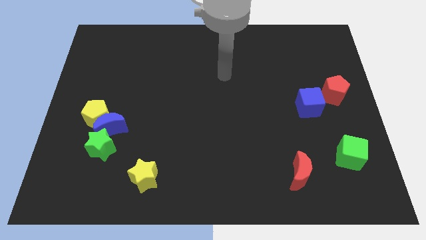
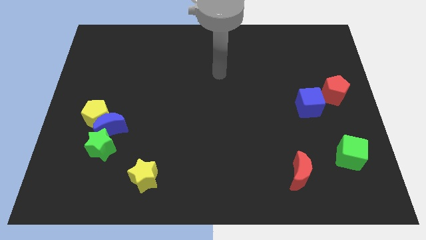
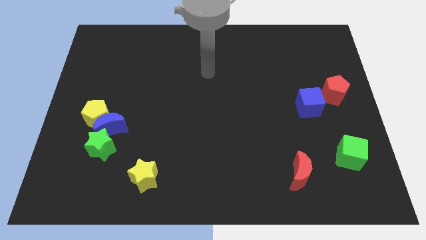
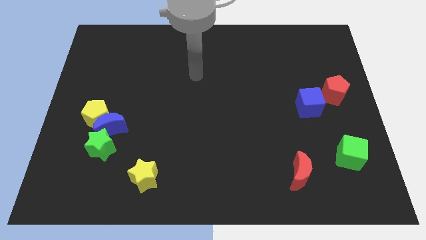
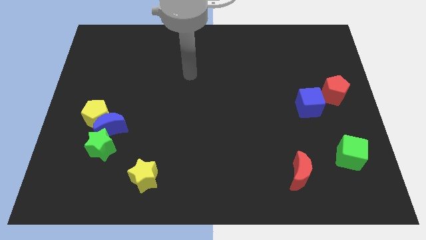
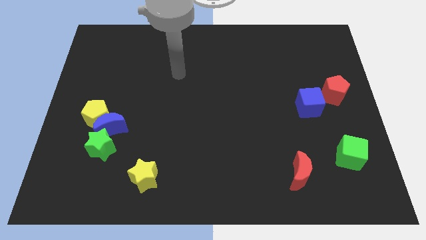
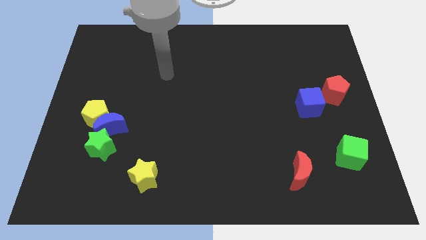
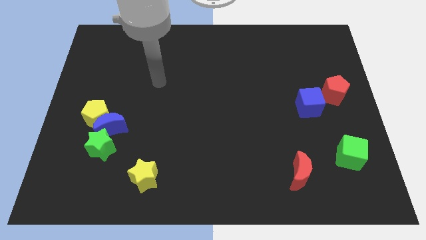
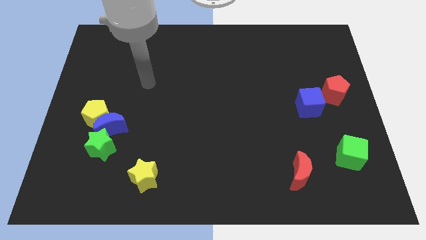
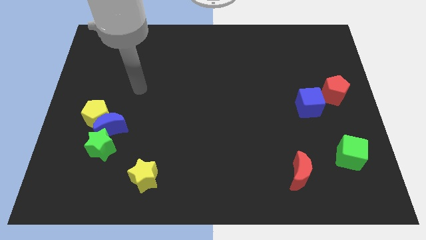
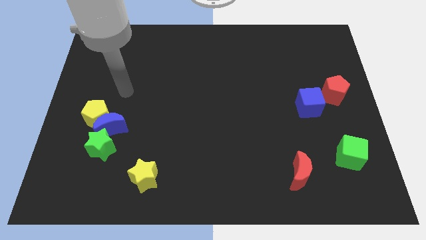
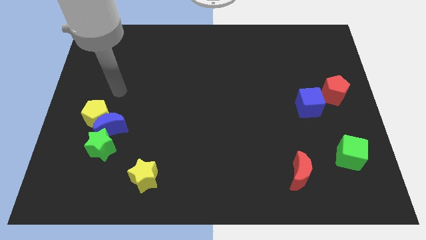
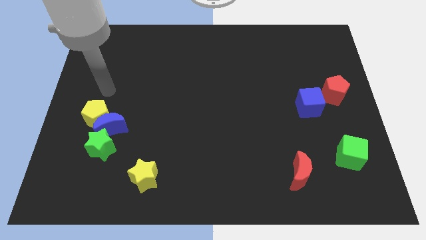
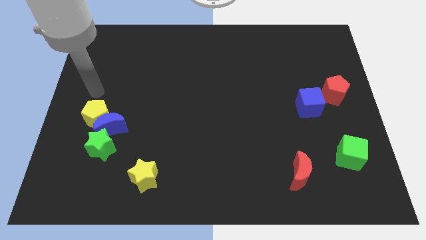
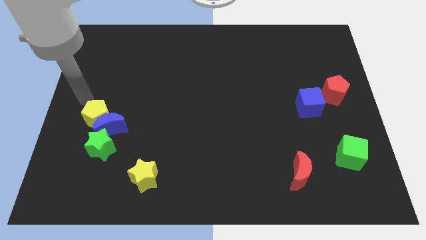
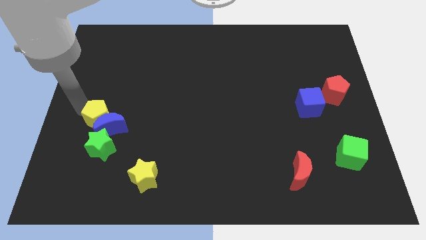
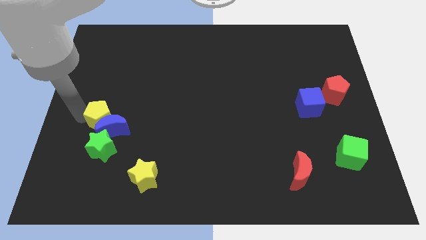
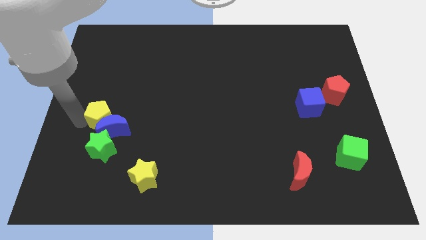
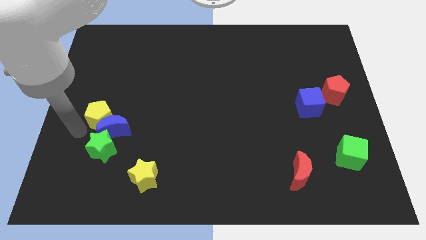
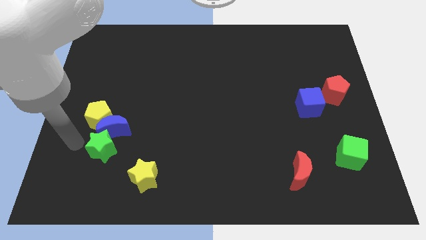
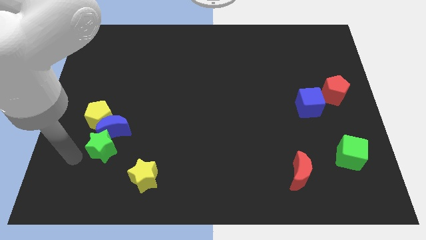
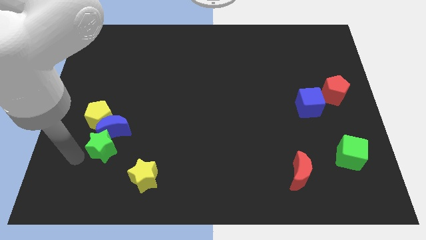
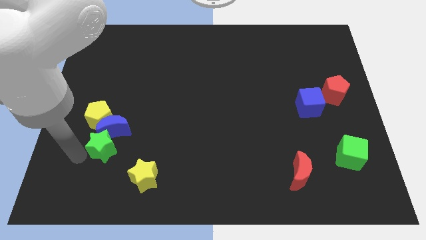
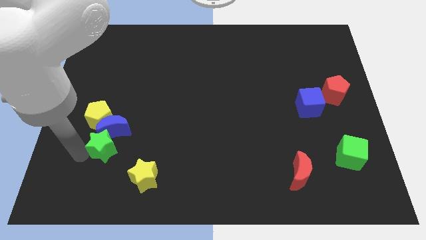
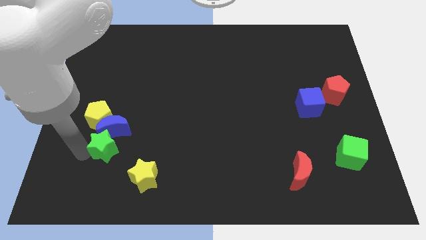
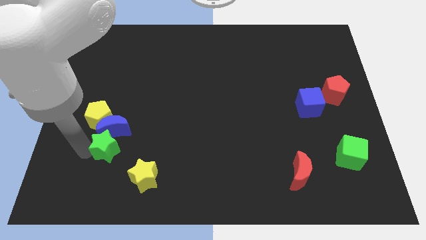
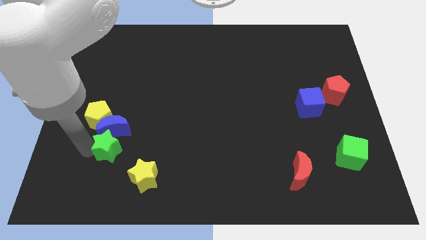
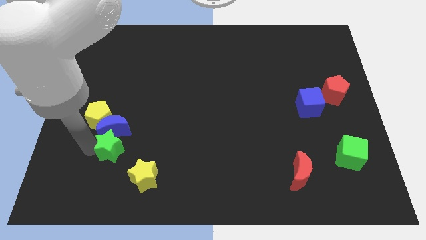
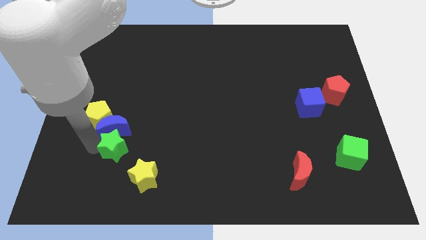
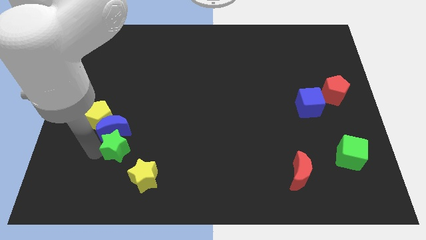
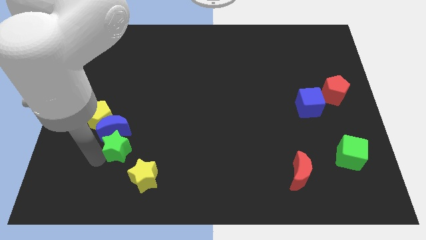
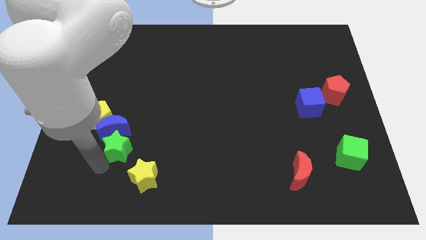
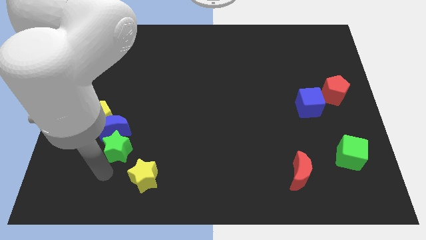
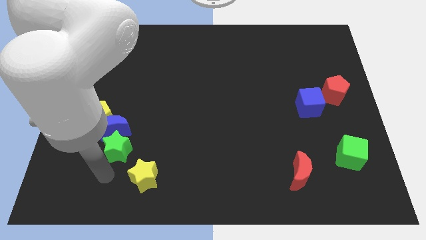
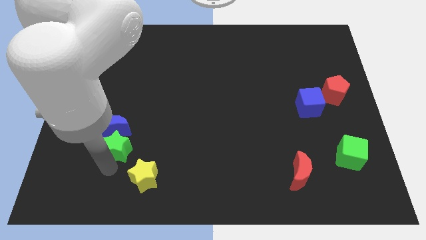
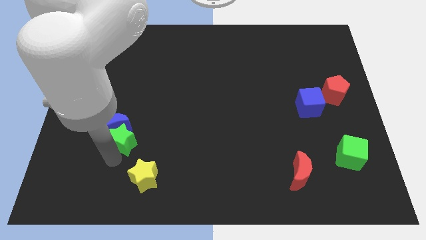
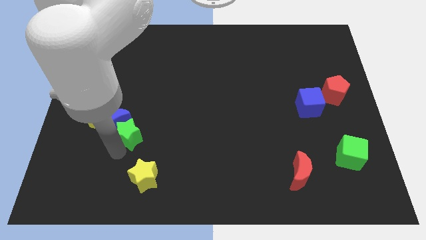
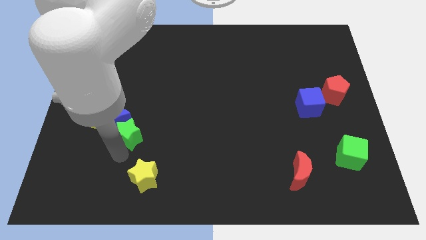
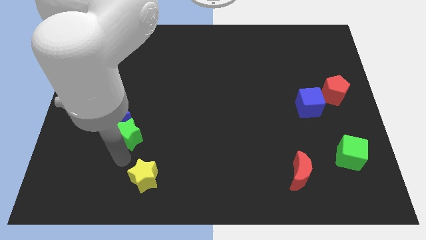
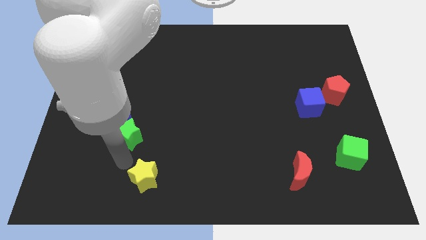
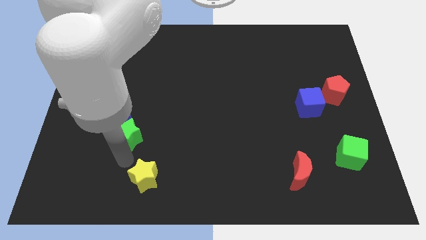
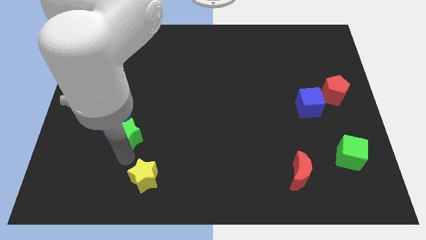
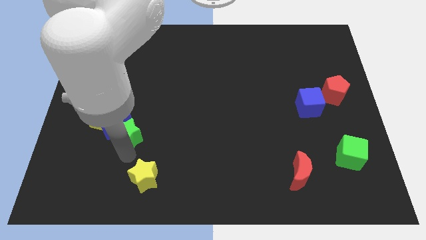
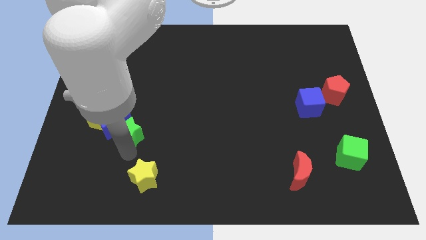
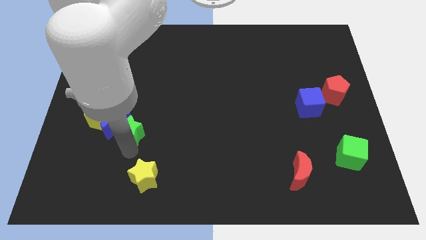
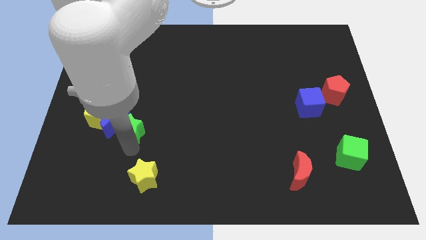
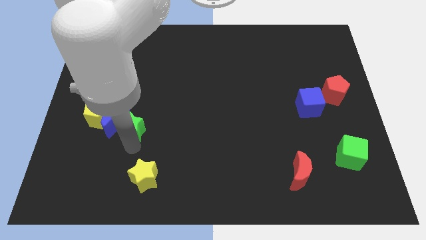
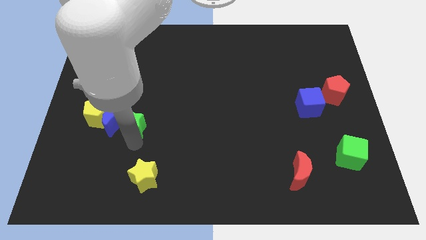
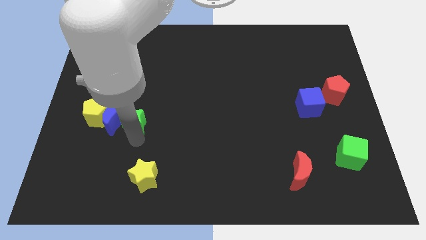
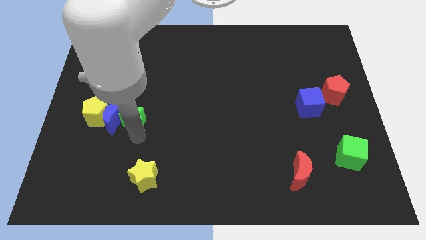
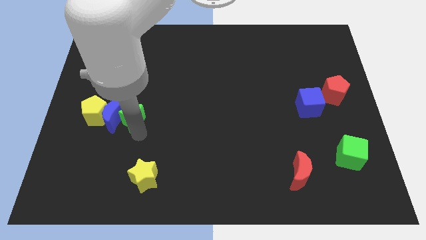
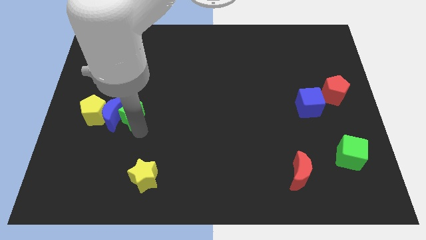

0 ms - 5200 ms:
push the green star up a little

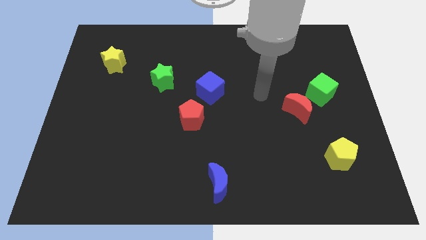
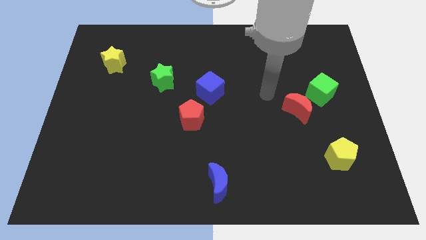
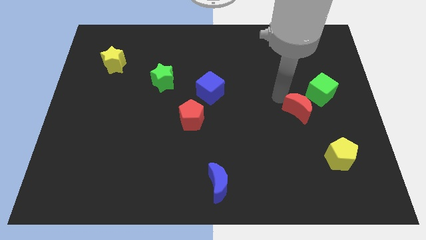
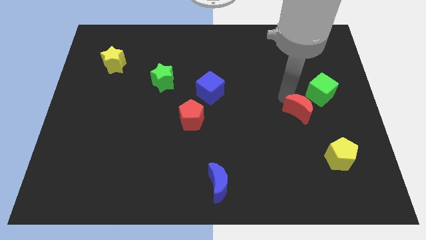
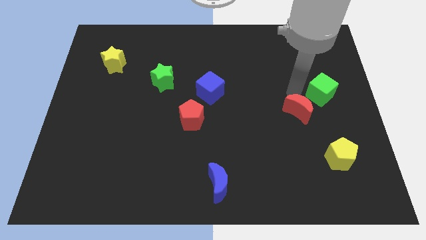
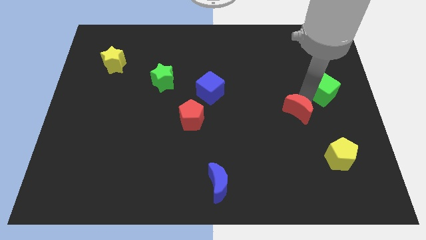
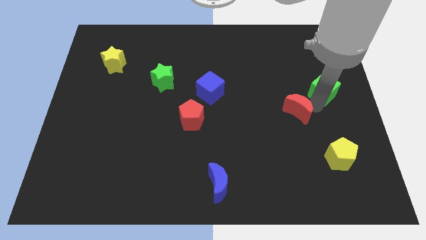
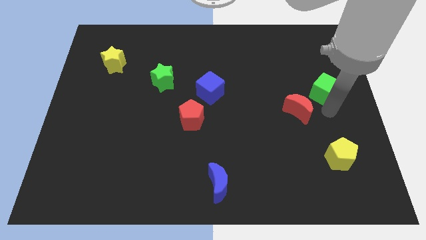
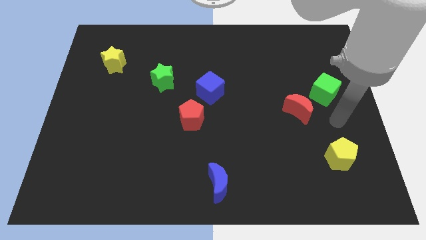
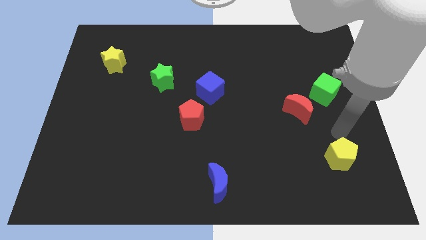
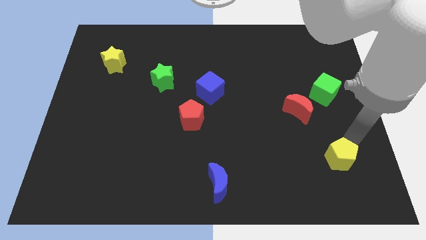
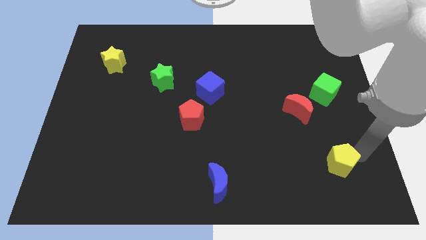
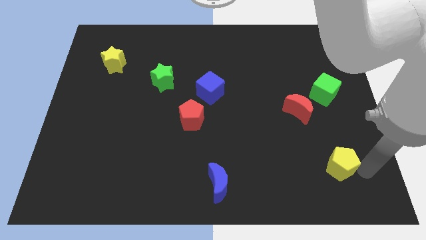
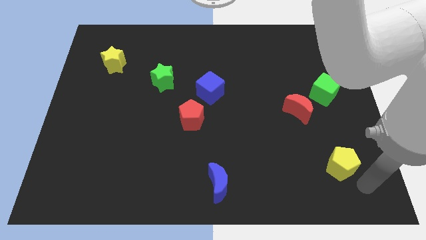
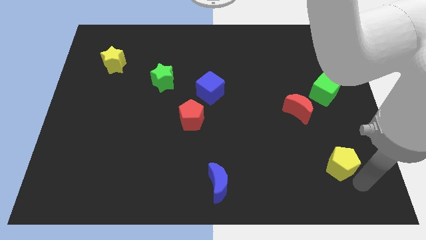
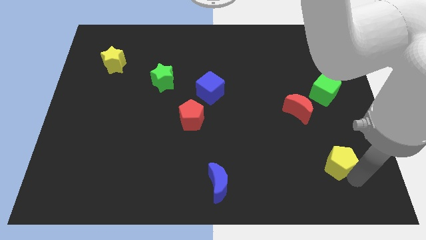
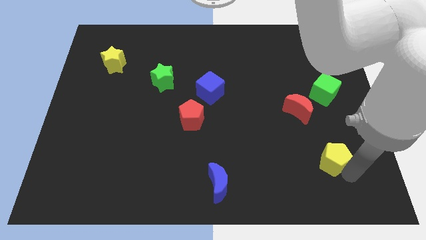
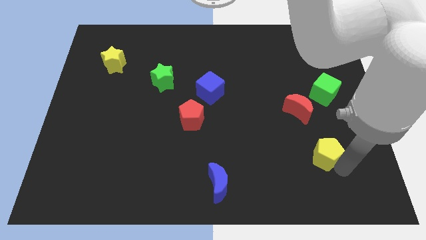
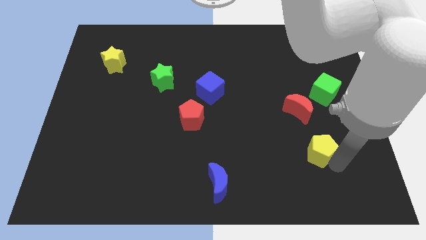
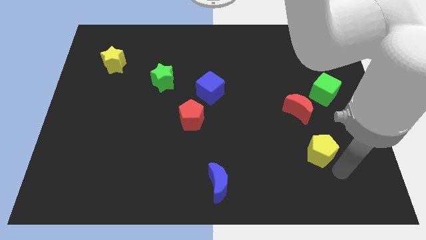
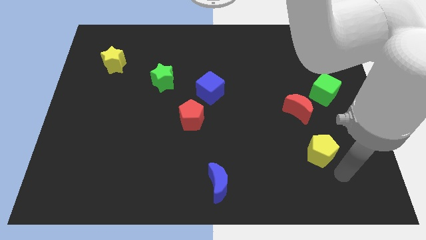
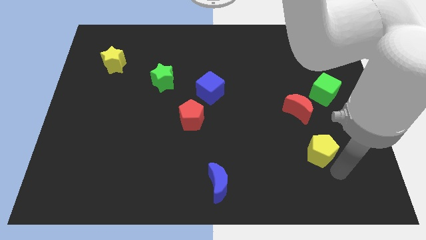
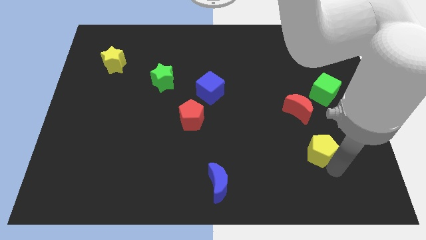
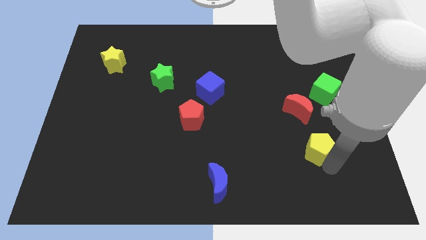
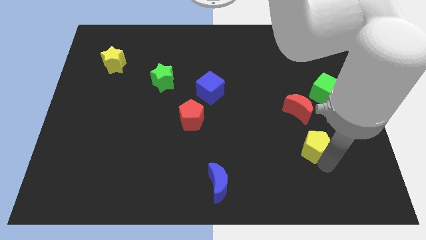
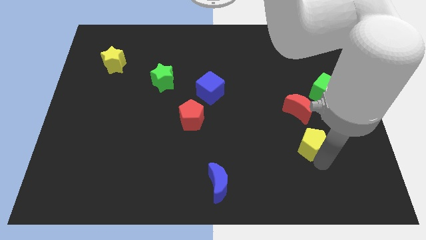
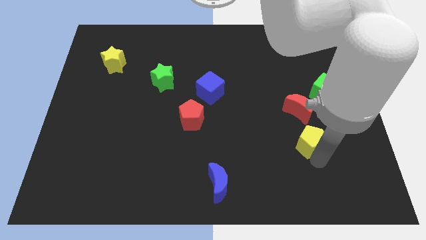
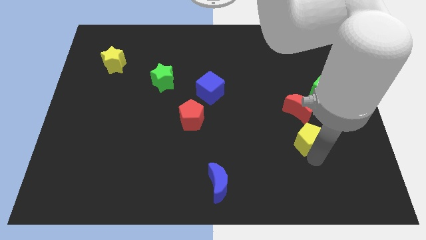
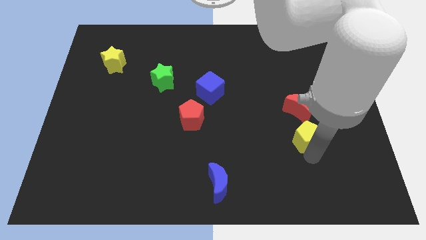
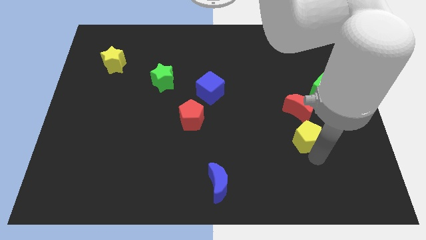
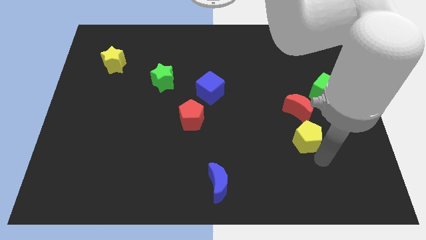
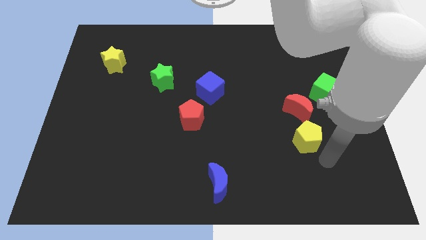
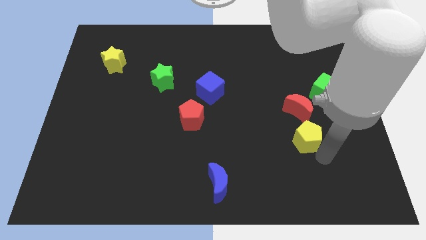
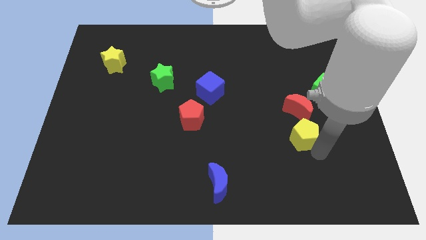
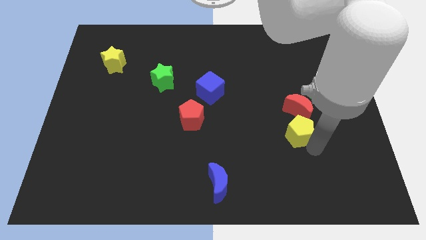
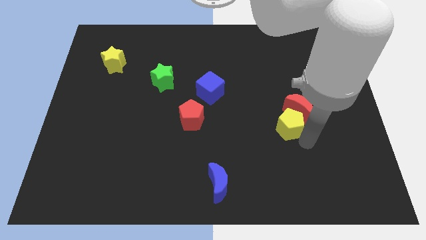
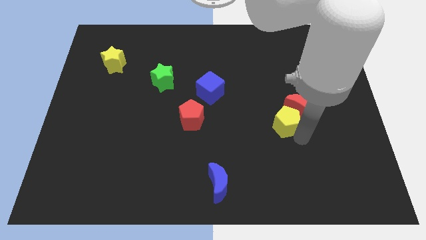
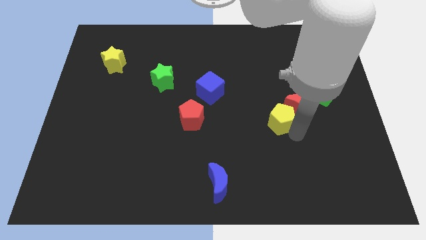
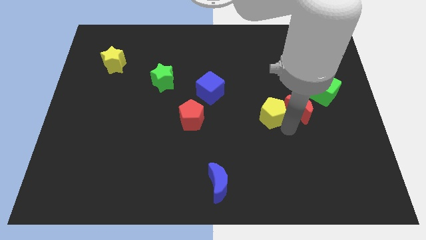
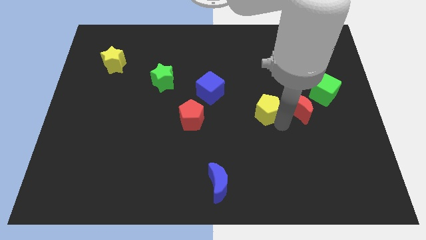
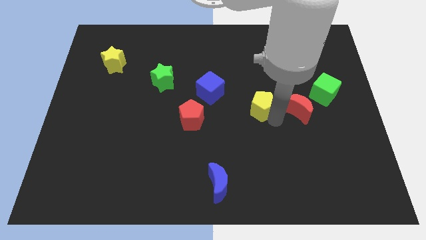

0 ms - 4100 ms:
move the yellow pentagon up and then to the left
